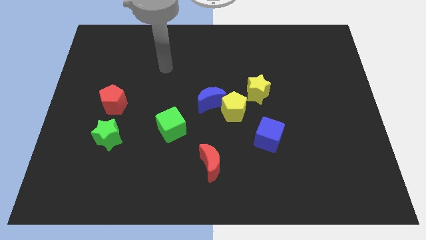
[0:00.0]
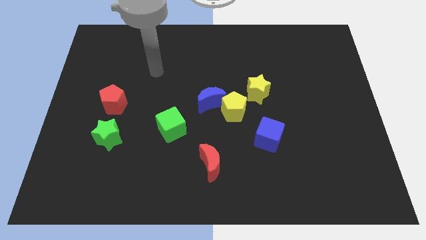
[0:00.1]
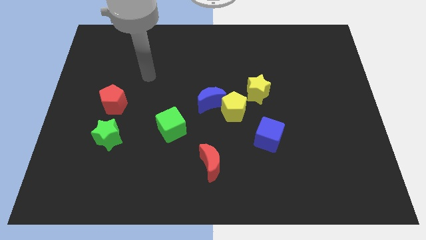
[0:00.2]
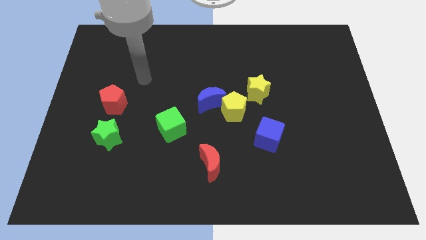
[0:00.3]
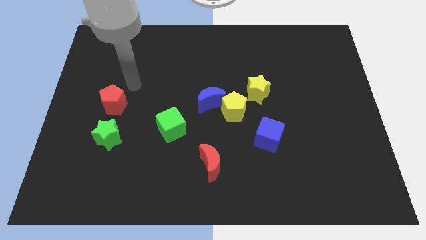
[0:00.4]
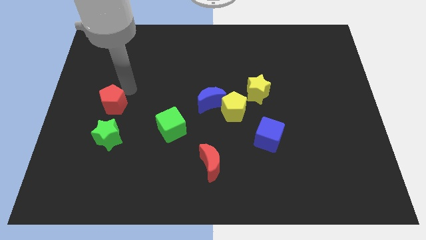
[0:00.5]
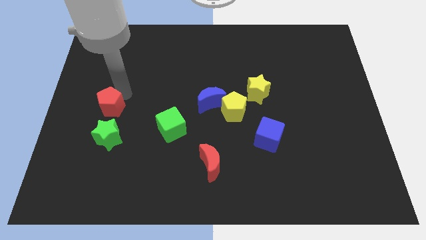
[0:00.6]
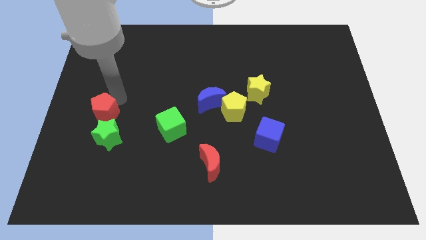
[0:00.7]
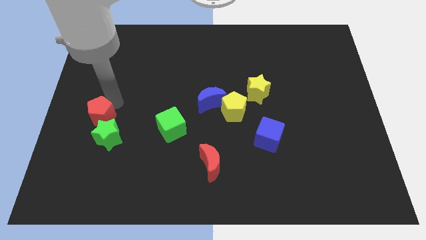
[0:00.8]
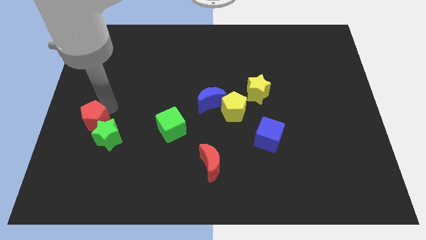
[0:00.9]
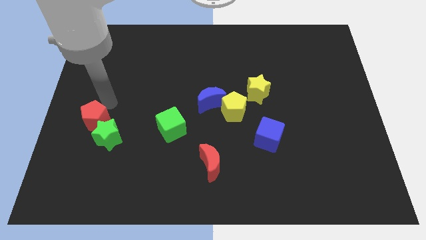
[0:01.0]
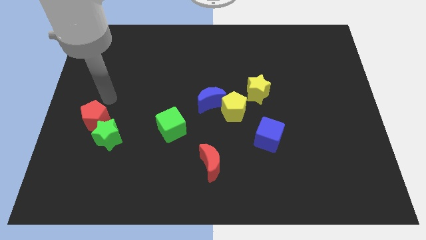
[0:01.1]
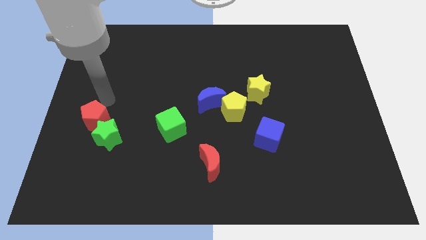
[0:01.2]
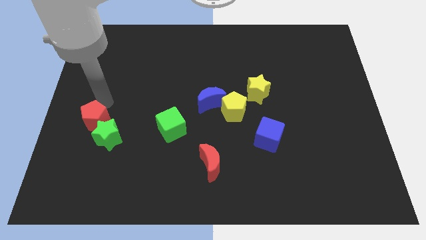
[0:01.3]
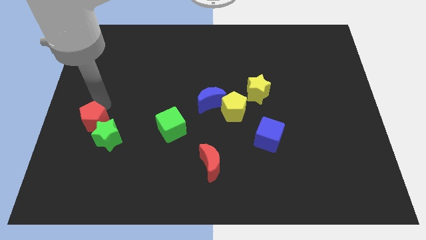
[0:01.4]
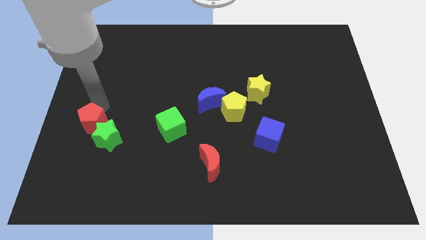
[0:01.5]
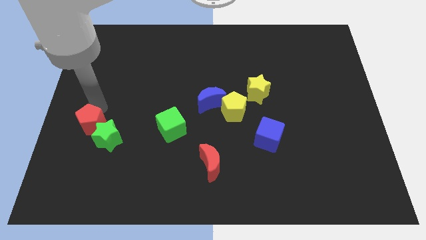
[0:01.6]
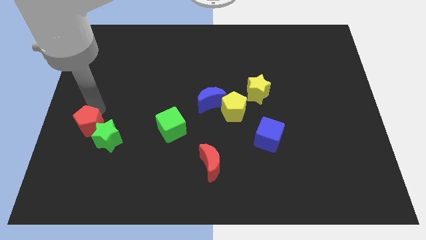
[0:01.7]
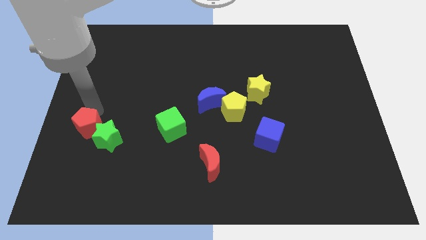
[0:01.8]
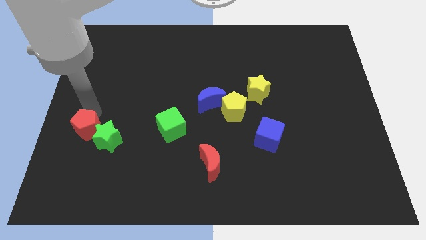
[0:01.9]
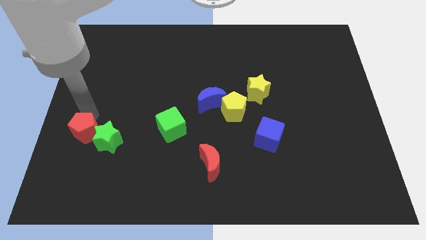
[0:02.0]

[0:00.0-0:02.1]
slightly push the red pentagon downwards

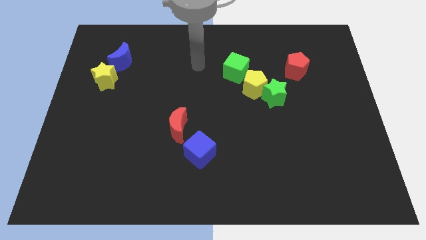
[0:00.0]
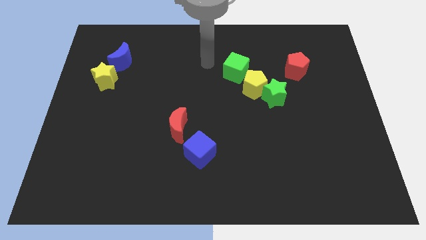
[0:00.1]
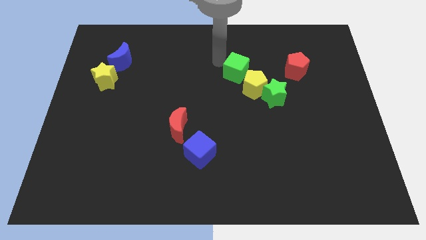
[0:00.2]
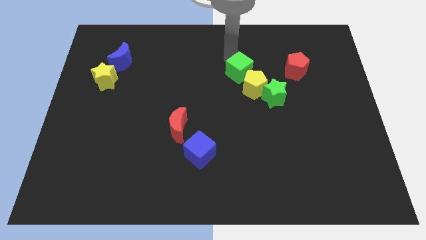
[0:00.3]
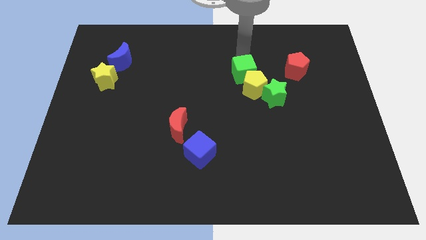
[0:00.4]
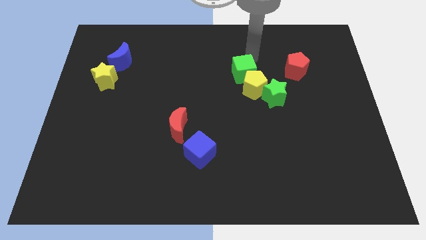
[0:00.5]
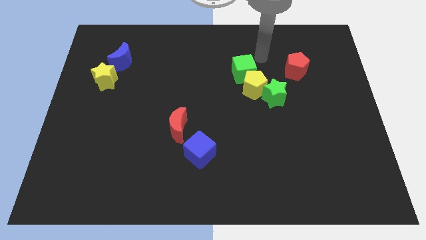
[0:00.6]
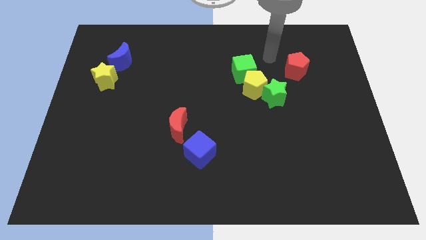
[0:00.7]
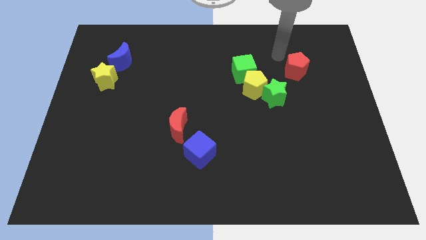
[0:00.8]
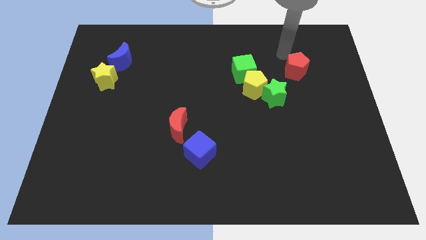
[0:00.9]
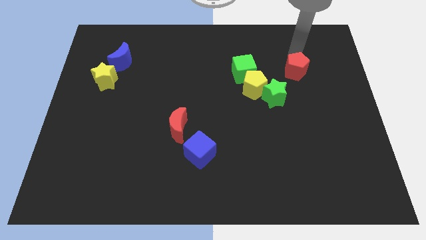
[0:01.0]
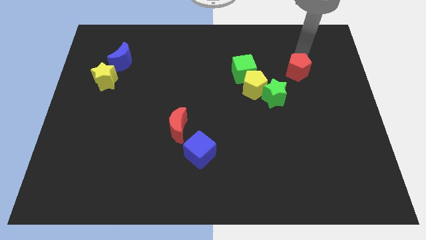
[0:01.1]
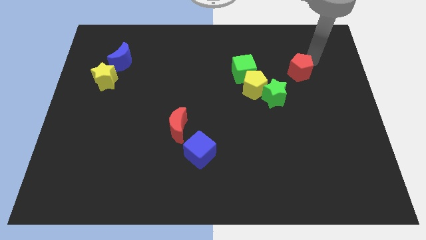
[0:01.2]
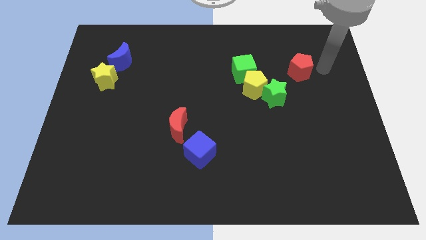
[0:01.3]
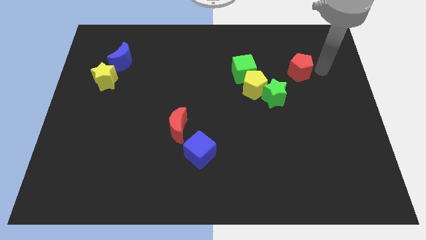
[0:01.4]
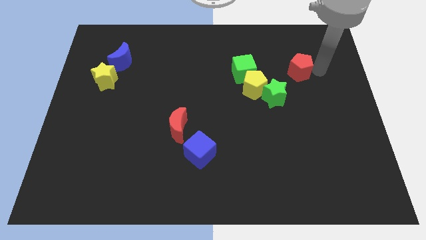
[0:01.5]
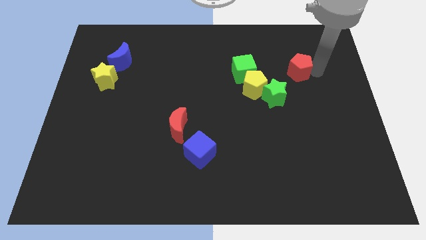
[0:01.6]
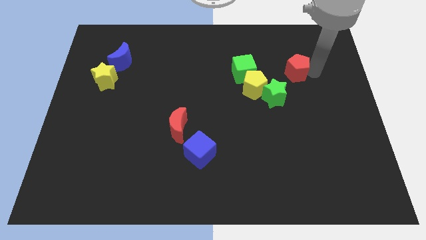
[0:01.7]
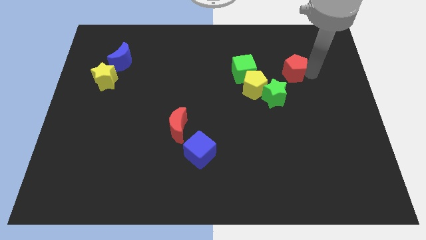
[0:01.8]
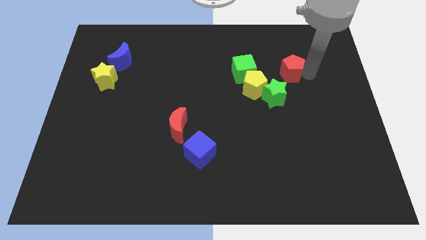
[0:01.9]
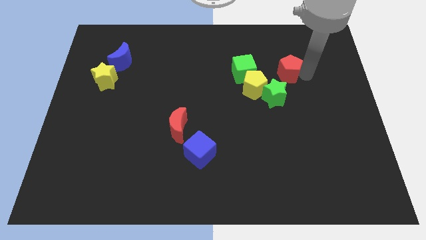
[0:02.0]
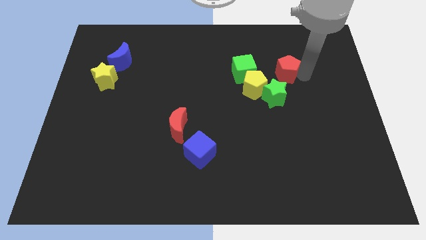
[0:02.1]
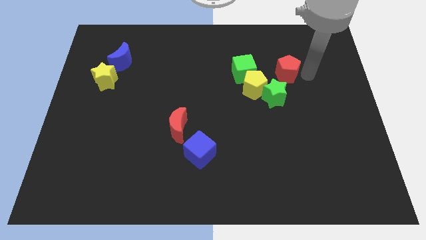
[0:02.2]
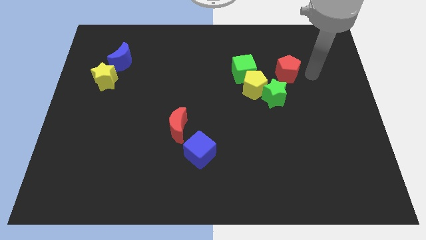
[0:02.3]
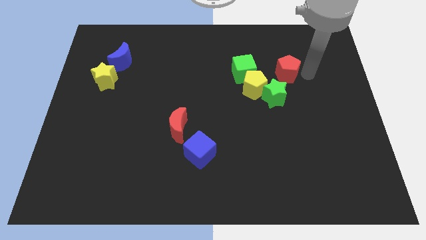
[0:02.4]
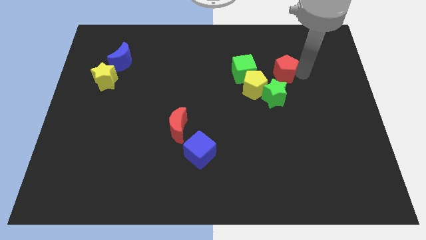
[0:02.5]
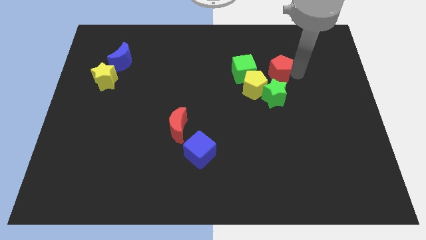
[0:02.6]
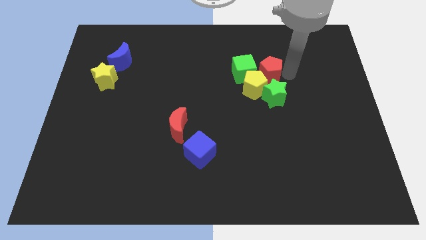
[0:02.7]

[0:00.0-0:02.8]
move the red pentagon left somewhat

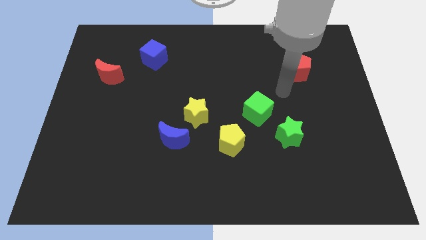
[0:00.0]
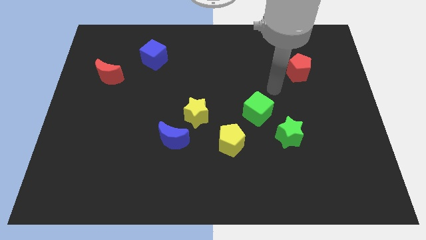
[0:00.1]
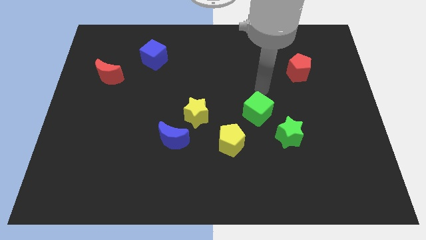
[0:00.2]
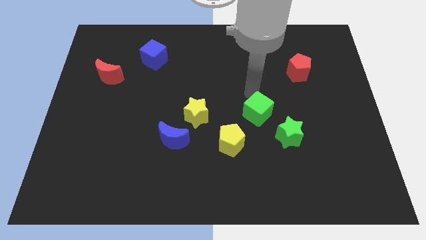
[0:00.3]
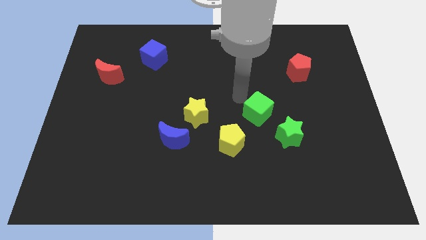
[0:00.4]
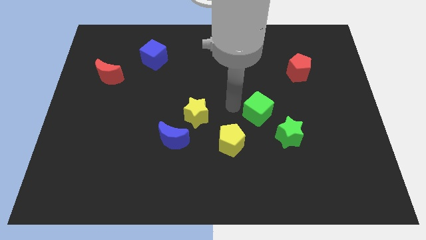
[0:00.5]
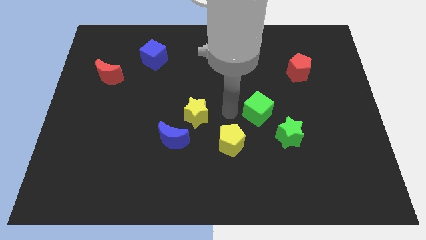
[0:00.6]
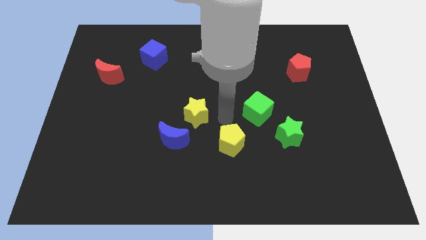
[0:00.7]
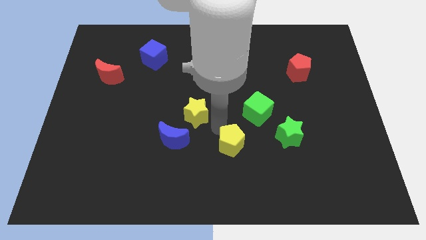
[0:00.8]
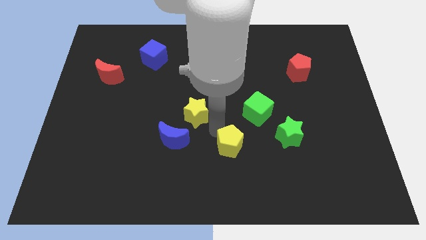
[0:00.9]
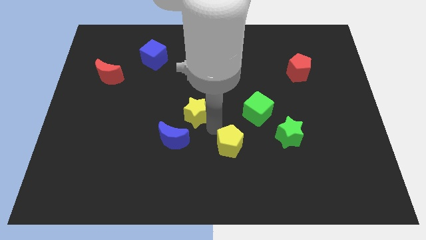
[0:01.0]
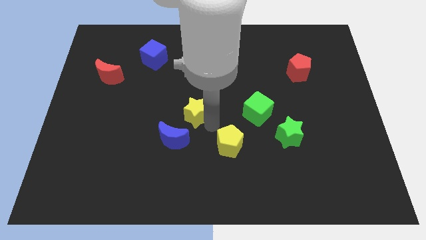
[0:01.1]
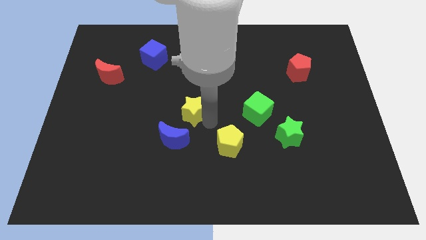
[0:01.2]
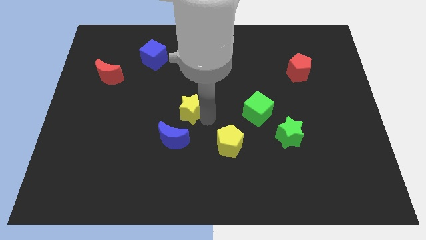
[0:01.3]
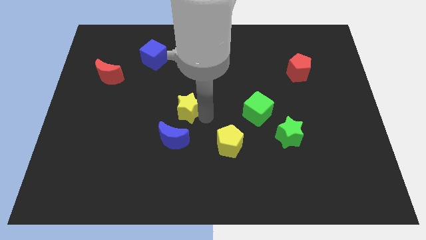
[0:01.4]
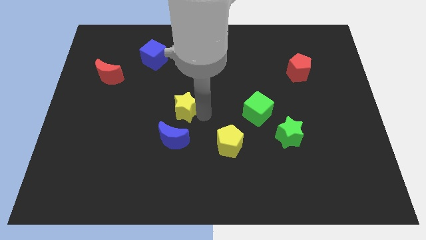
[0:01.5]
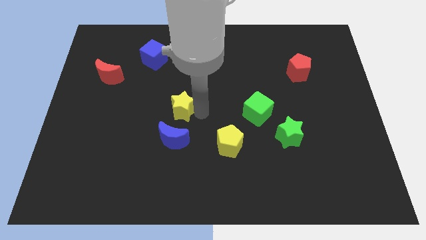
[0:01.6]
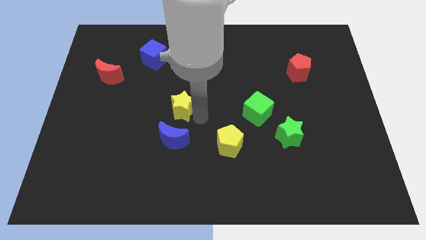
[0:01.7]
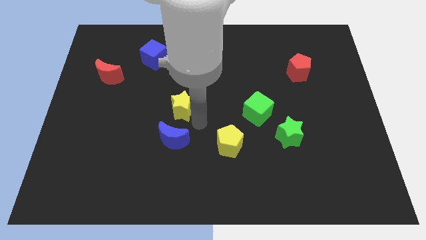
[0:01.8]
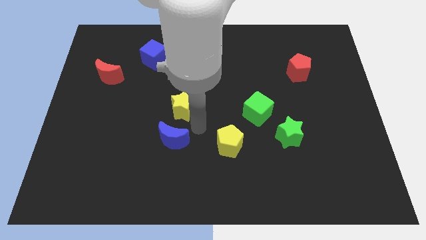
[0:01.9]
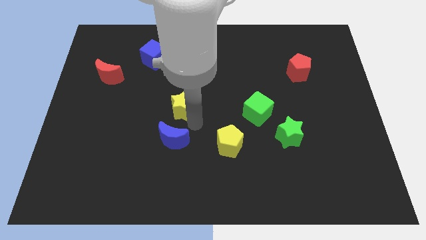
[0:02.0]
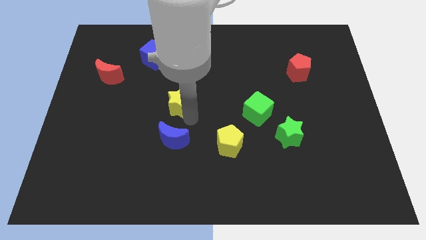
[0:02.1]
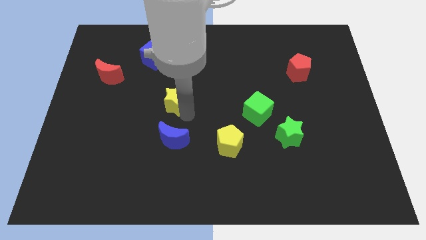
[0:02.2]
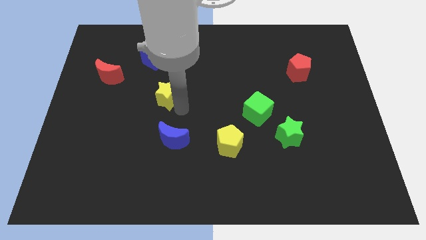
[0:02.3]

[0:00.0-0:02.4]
slightly push the yellow star diagonally upwards and left

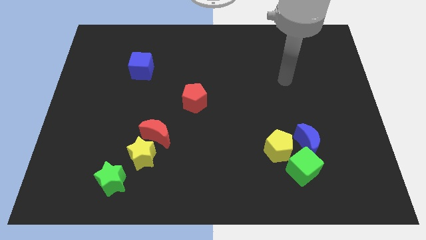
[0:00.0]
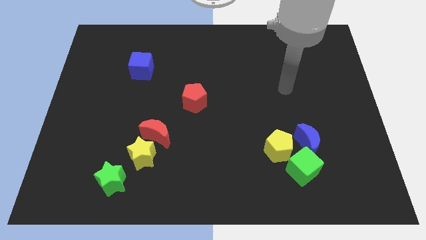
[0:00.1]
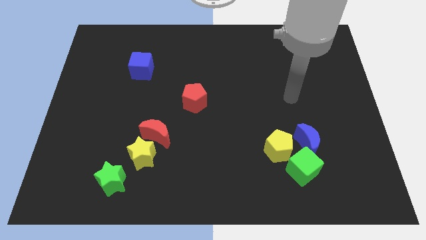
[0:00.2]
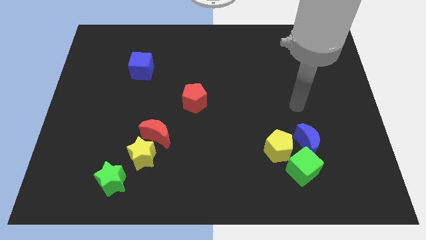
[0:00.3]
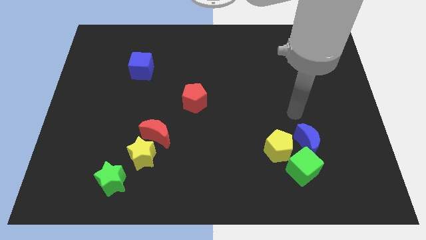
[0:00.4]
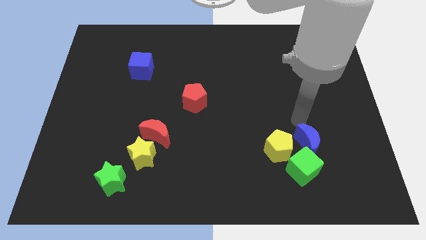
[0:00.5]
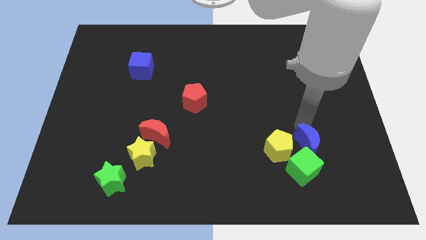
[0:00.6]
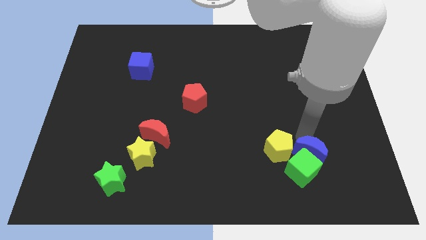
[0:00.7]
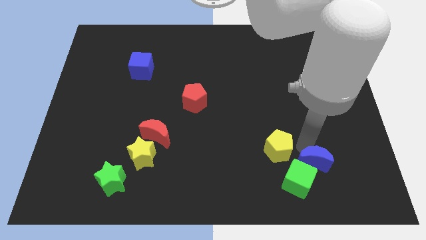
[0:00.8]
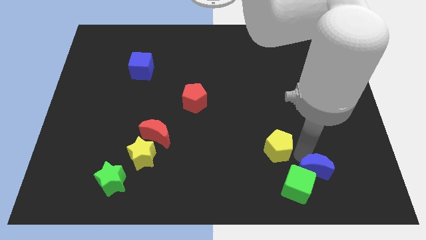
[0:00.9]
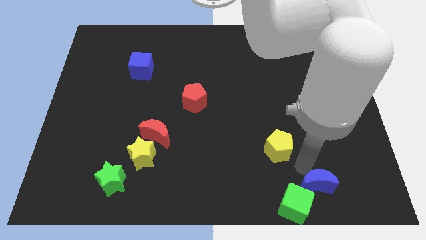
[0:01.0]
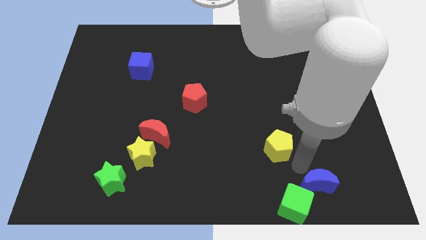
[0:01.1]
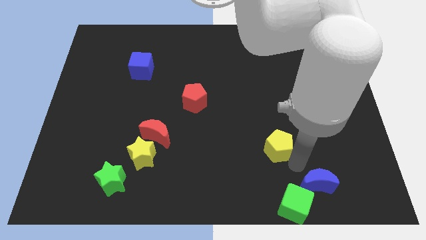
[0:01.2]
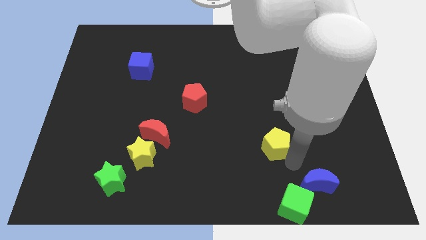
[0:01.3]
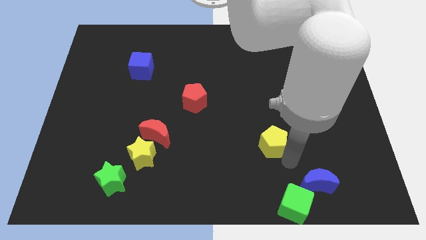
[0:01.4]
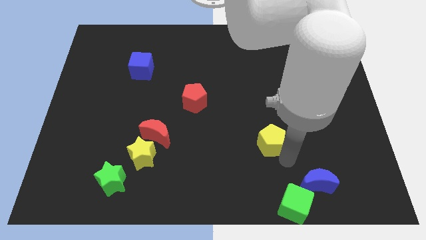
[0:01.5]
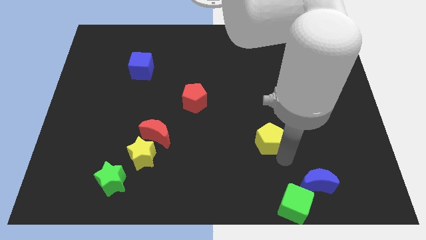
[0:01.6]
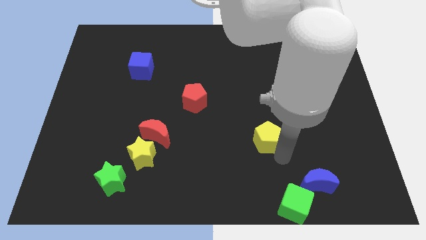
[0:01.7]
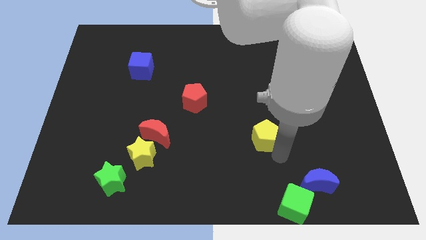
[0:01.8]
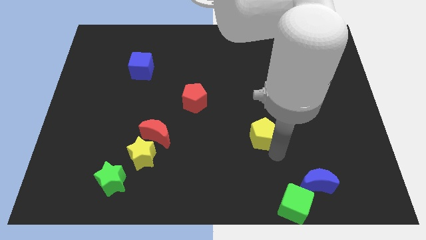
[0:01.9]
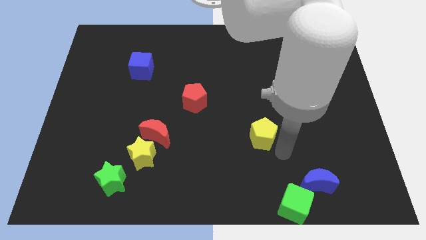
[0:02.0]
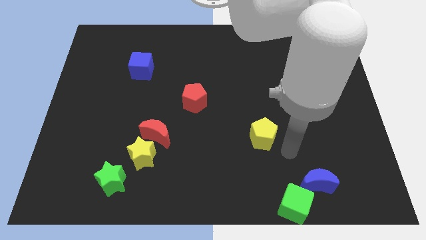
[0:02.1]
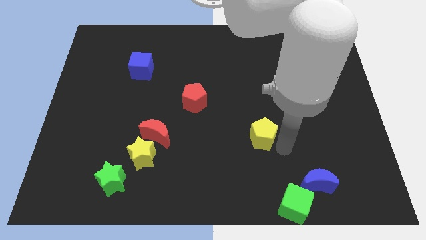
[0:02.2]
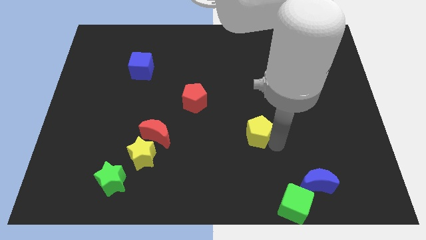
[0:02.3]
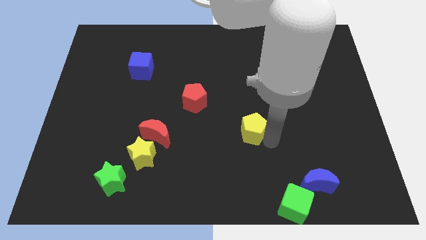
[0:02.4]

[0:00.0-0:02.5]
move the yellow pentagon diagonally up and left a little bit
